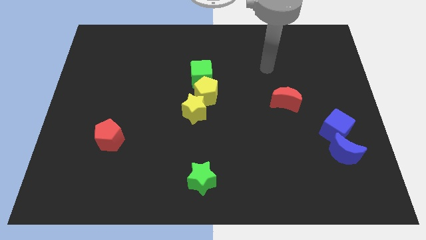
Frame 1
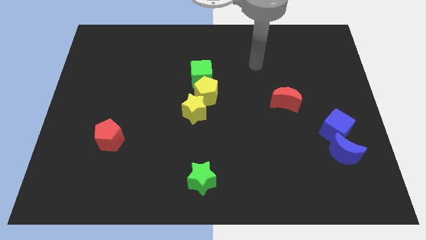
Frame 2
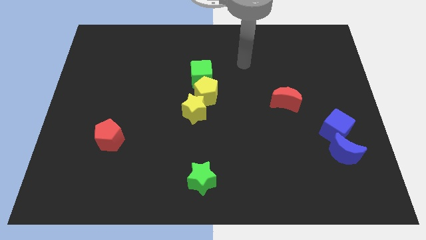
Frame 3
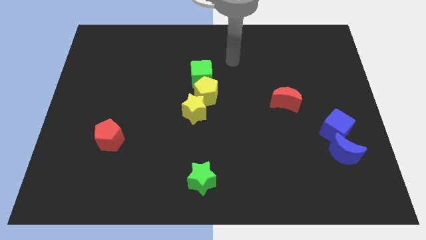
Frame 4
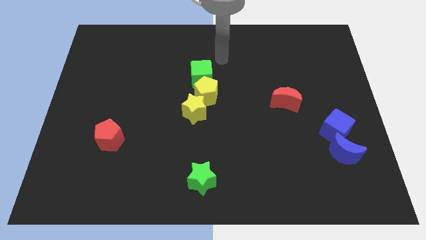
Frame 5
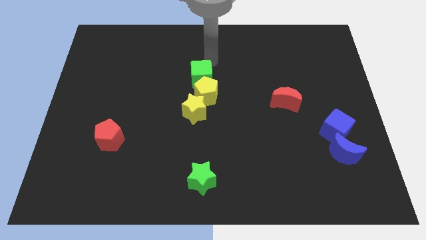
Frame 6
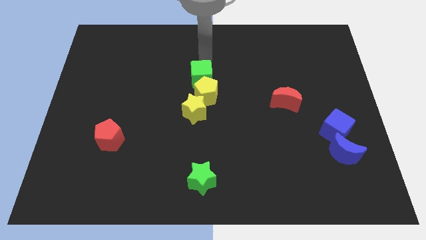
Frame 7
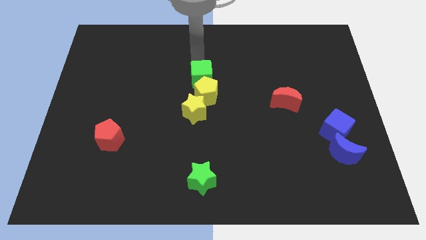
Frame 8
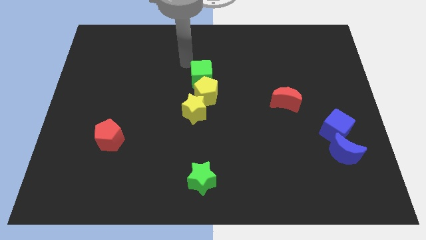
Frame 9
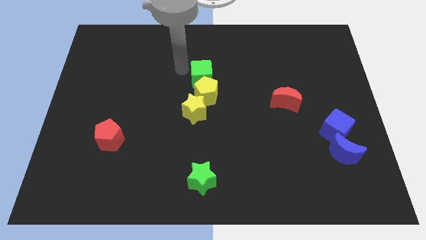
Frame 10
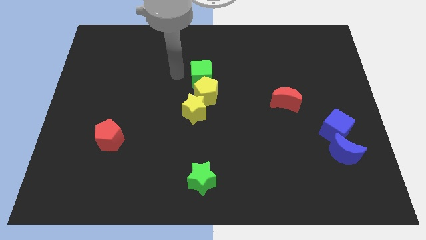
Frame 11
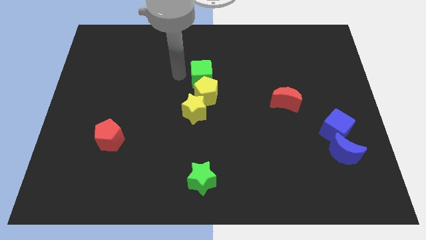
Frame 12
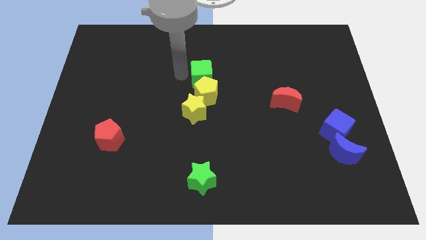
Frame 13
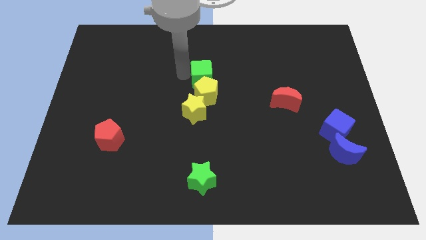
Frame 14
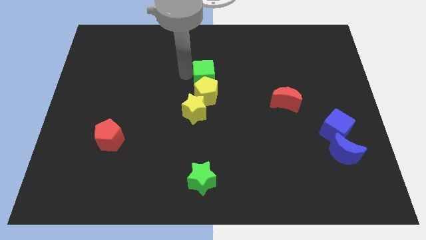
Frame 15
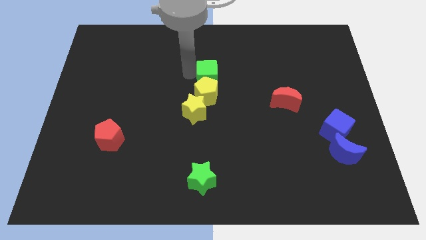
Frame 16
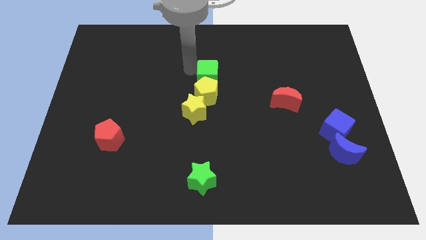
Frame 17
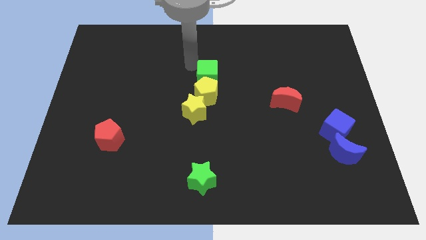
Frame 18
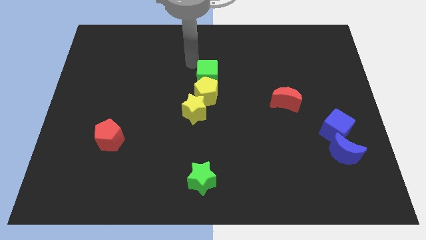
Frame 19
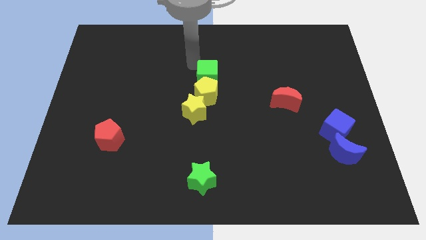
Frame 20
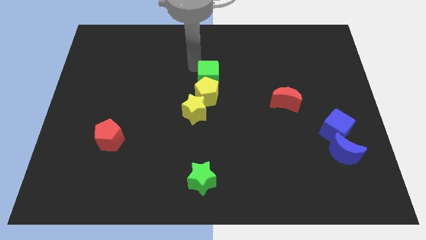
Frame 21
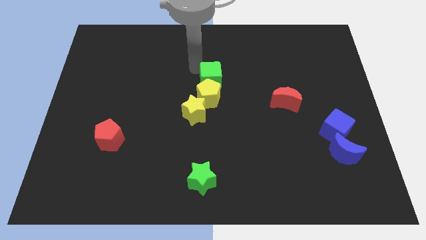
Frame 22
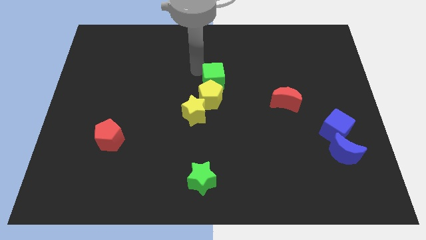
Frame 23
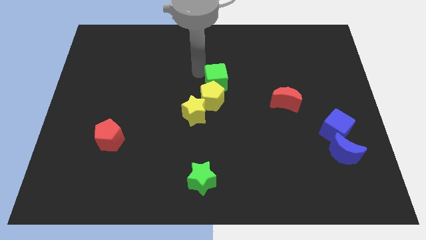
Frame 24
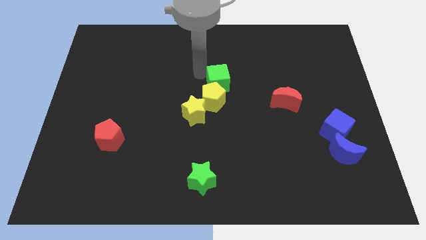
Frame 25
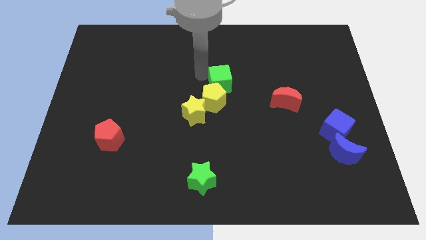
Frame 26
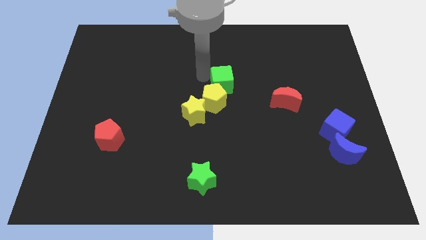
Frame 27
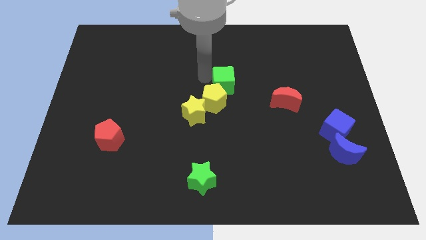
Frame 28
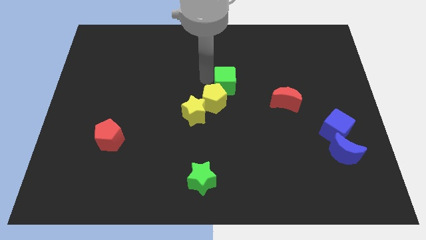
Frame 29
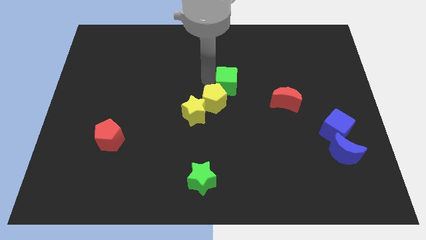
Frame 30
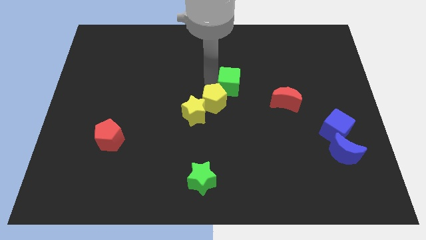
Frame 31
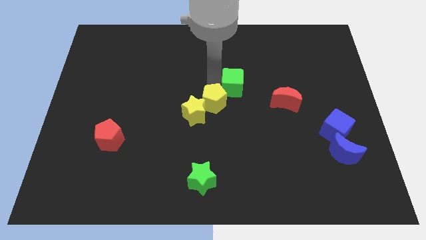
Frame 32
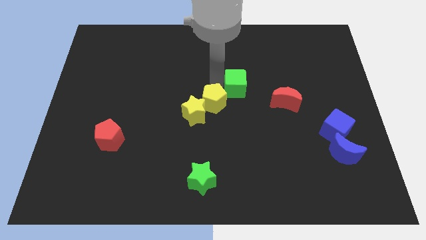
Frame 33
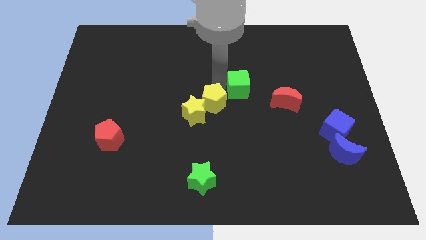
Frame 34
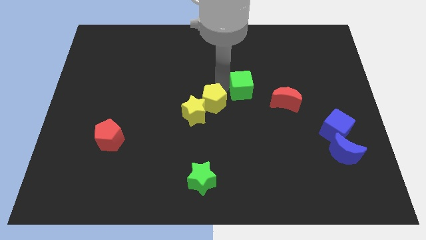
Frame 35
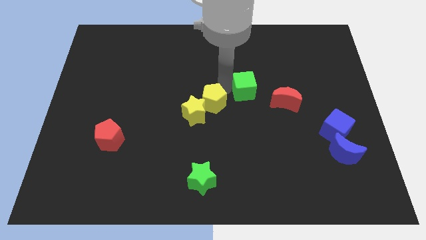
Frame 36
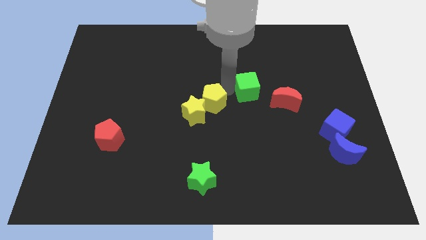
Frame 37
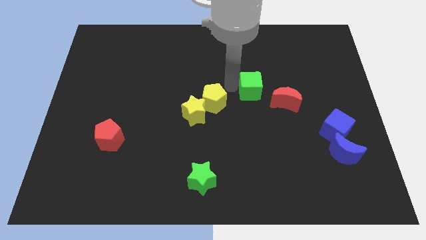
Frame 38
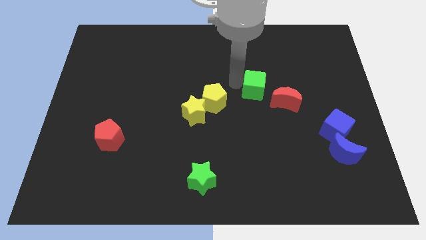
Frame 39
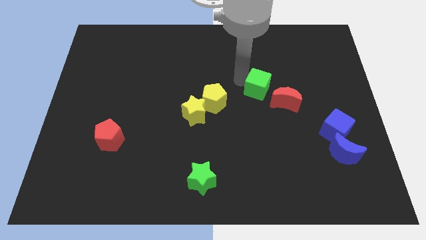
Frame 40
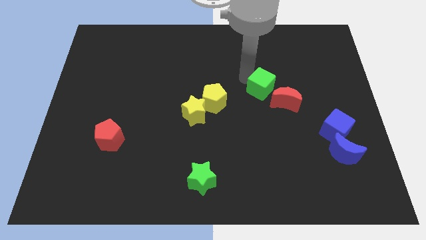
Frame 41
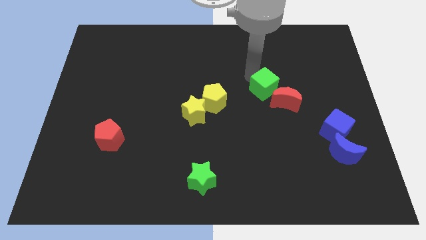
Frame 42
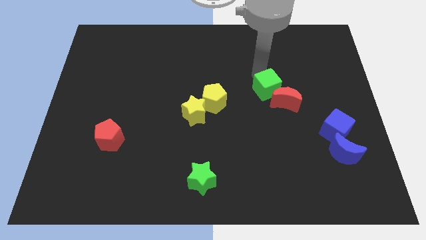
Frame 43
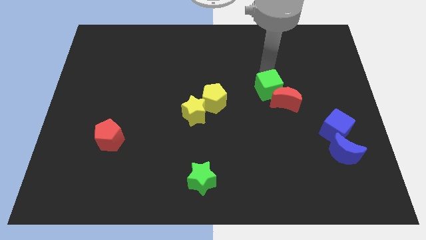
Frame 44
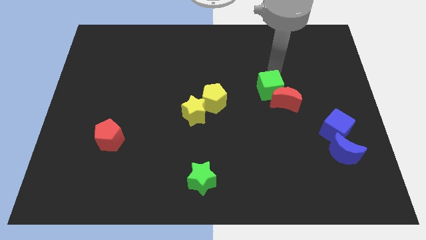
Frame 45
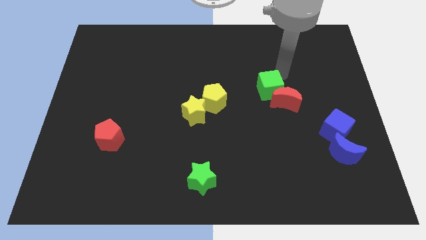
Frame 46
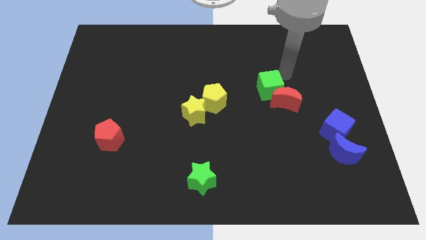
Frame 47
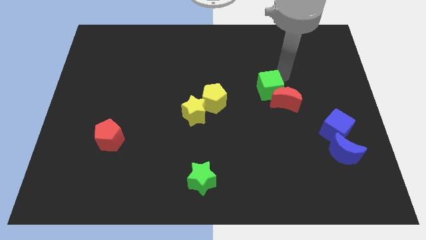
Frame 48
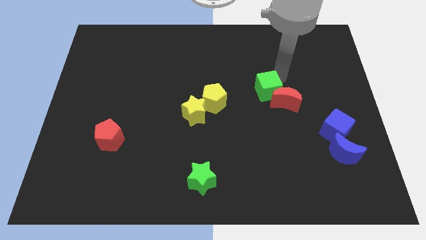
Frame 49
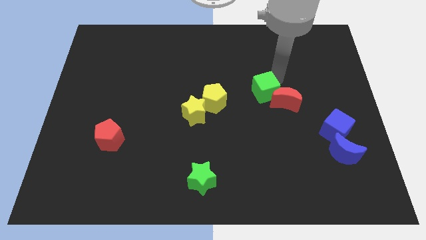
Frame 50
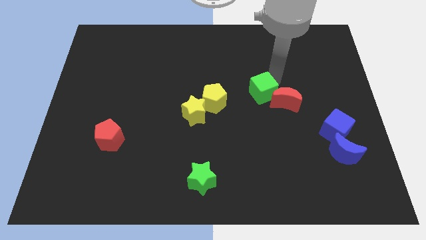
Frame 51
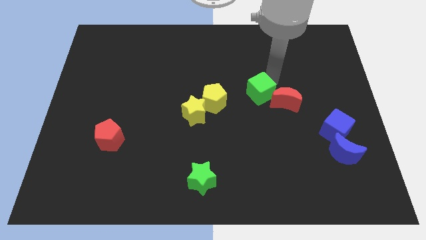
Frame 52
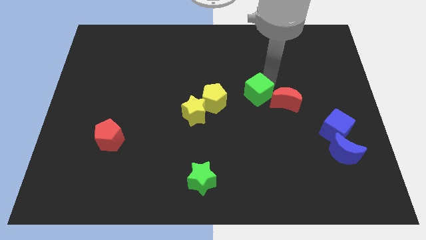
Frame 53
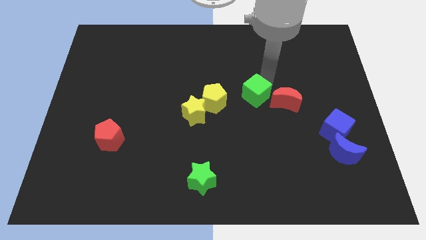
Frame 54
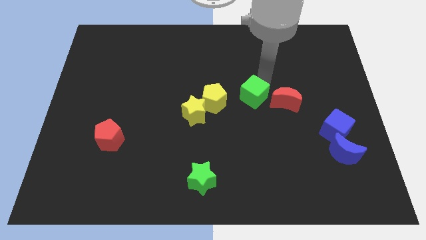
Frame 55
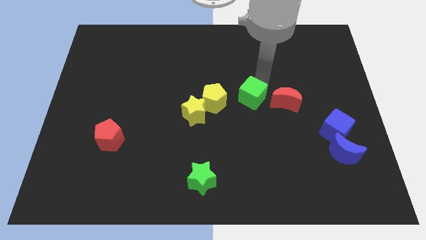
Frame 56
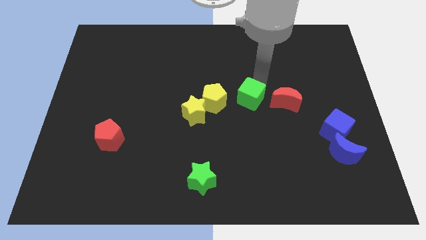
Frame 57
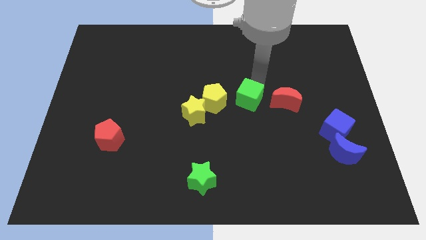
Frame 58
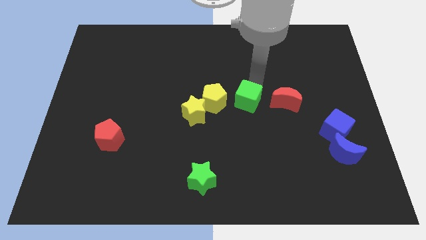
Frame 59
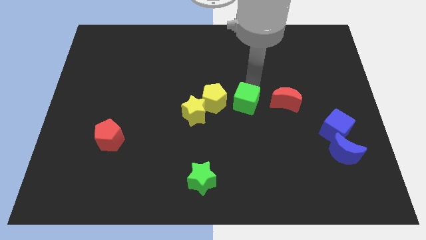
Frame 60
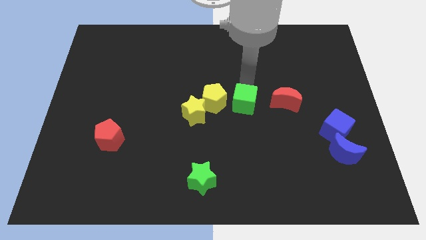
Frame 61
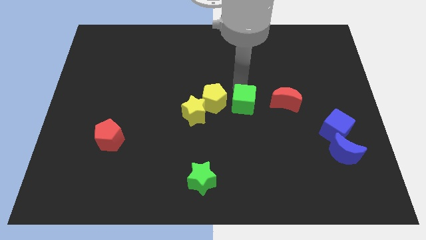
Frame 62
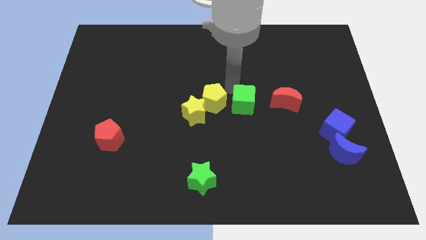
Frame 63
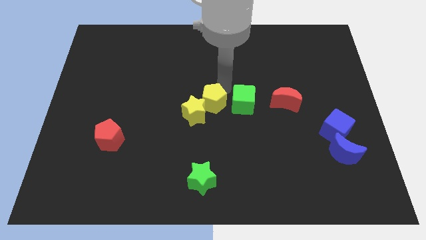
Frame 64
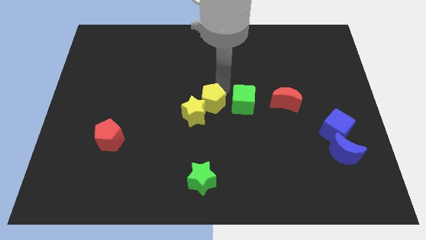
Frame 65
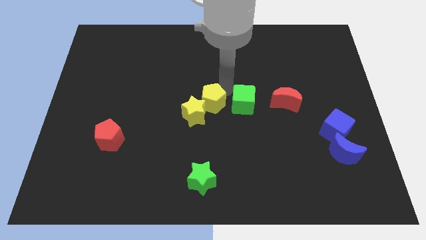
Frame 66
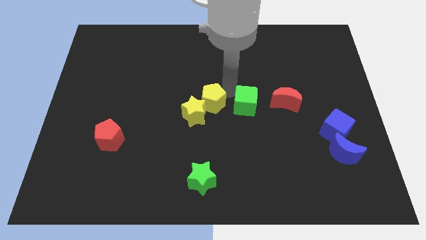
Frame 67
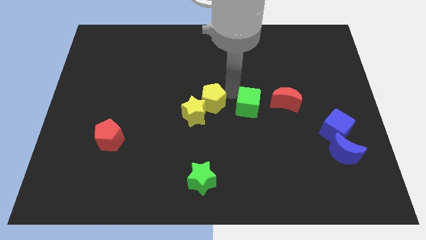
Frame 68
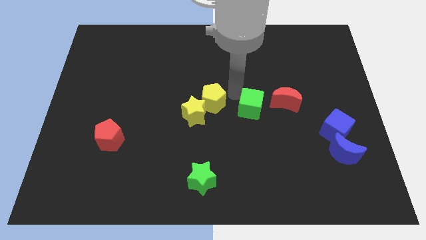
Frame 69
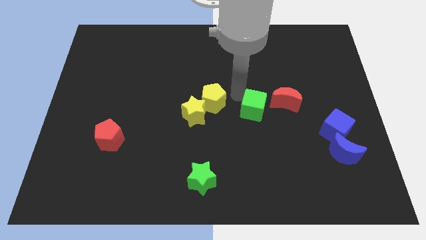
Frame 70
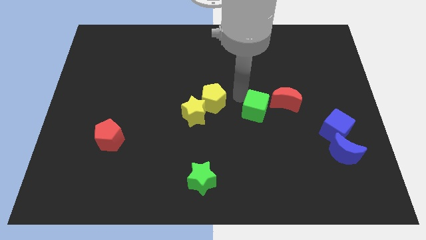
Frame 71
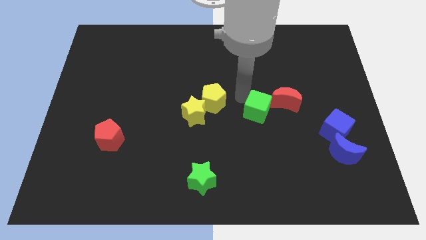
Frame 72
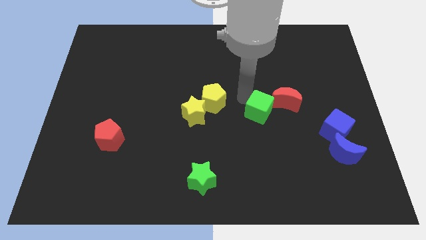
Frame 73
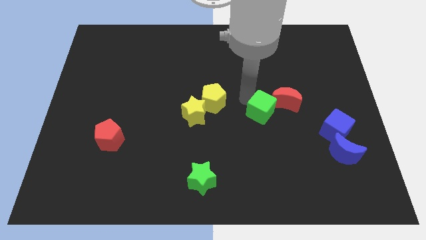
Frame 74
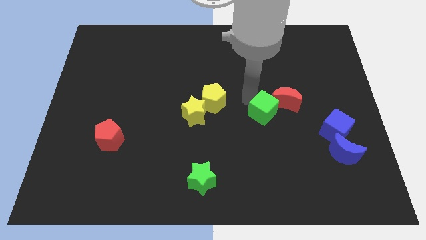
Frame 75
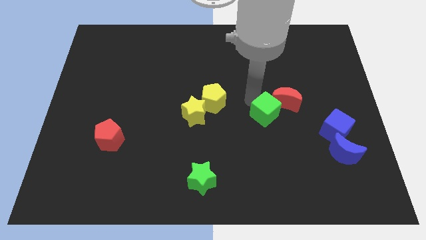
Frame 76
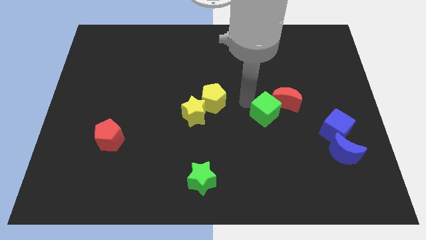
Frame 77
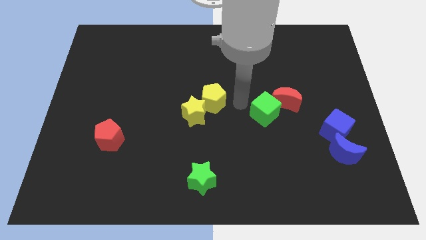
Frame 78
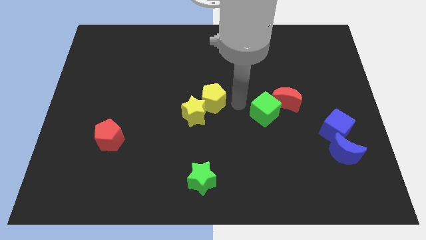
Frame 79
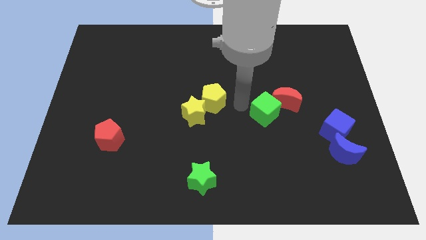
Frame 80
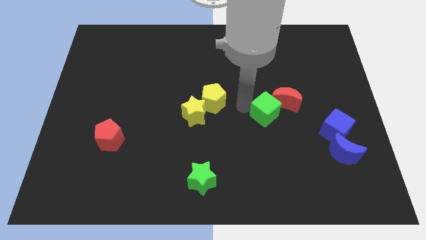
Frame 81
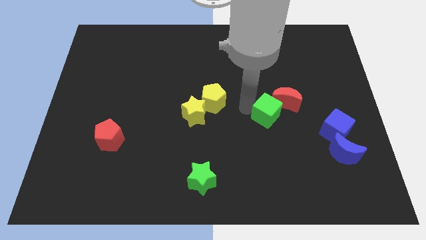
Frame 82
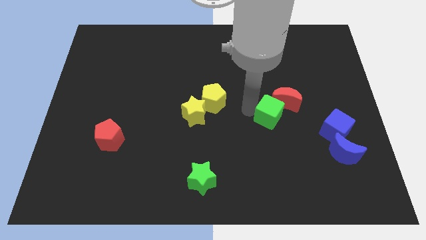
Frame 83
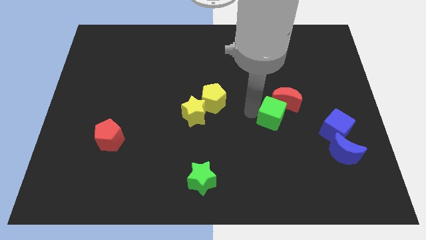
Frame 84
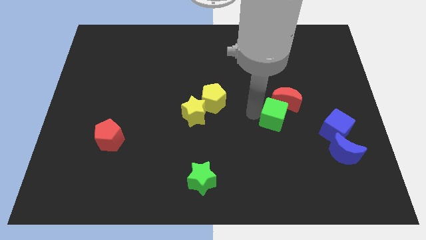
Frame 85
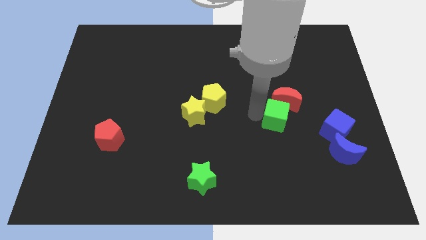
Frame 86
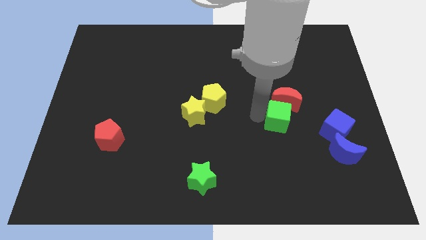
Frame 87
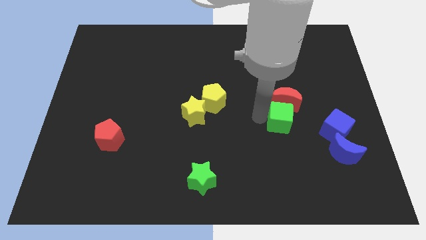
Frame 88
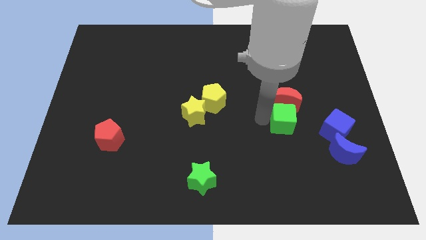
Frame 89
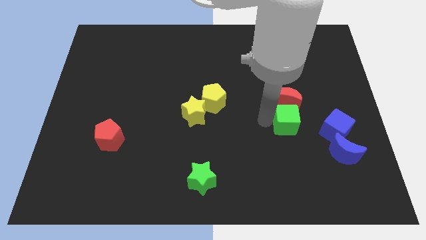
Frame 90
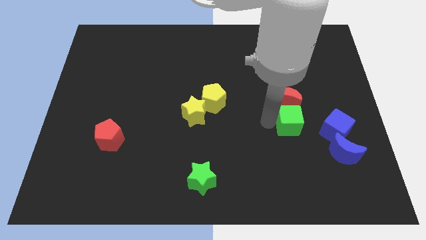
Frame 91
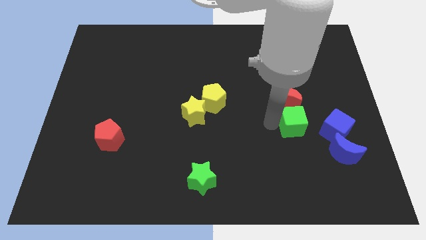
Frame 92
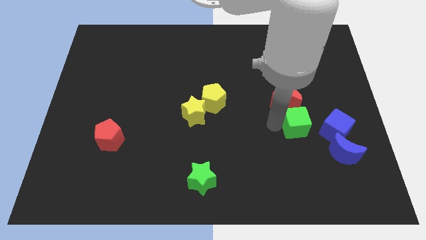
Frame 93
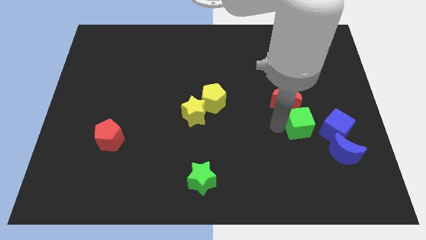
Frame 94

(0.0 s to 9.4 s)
slide the green cube to the top left side of the blue cube
